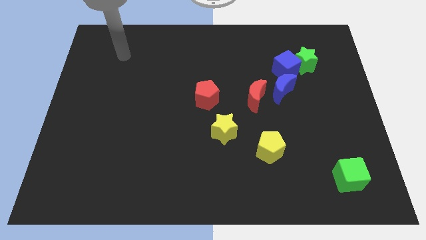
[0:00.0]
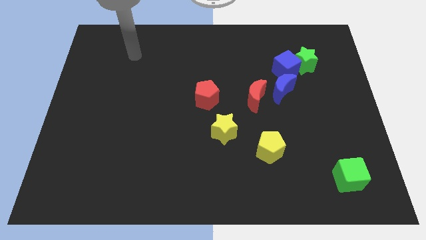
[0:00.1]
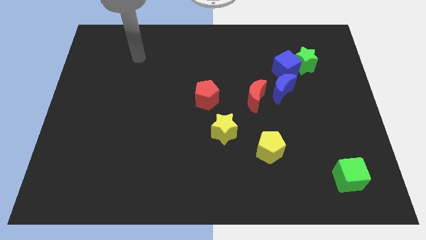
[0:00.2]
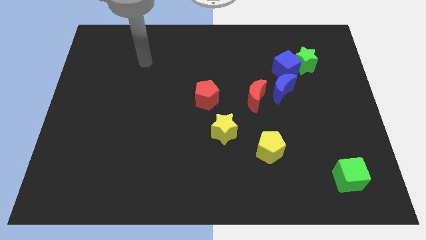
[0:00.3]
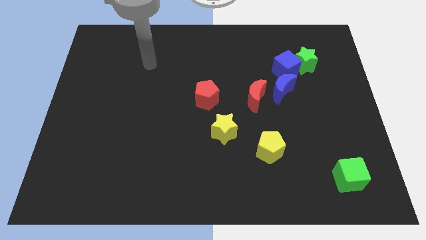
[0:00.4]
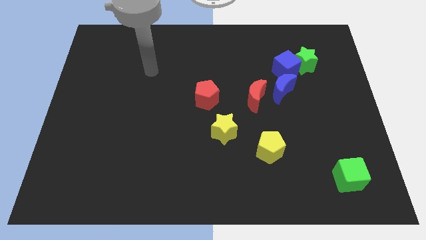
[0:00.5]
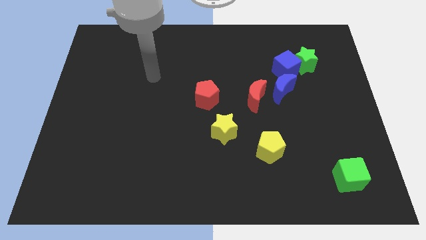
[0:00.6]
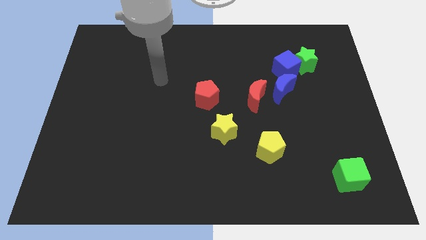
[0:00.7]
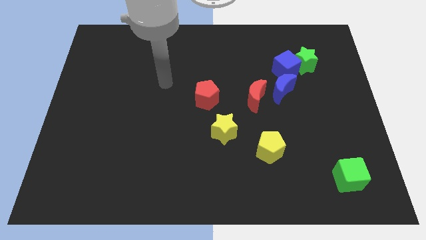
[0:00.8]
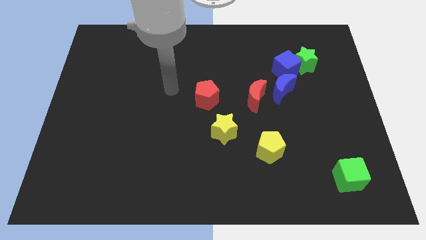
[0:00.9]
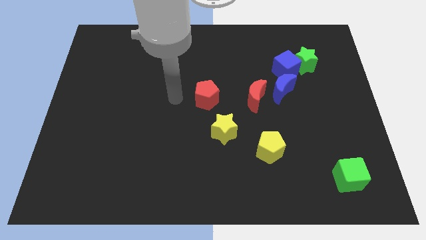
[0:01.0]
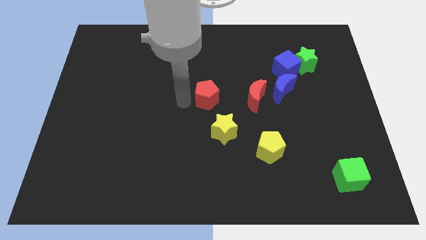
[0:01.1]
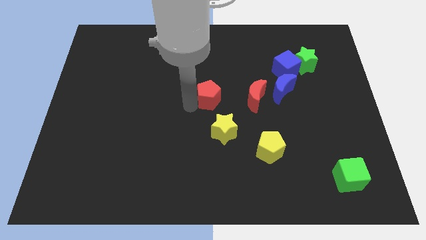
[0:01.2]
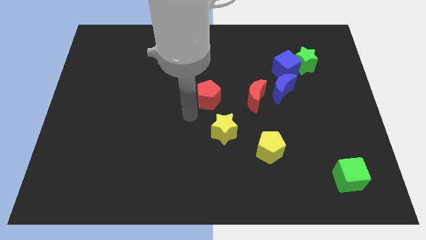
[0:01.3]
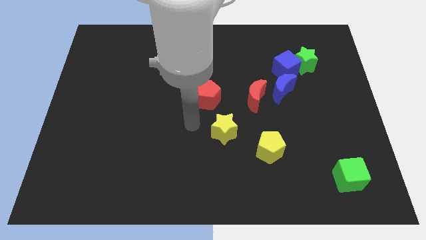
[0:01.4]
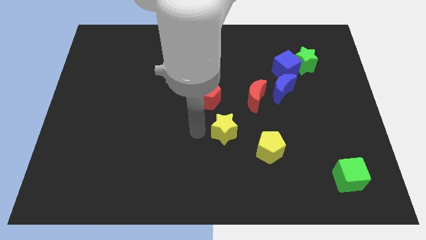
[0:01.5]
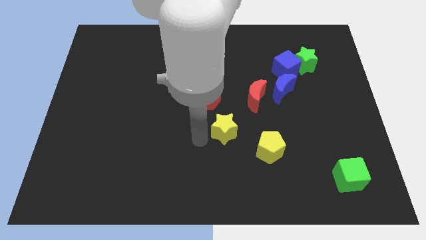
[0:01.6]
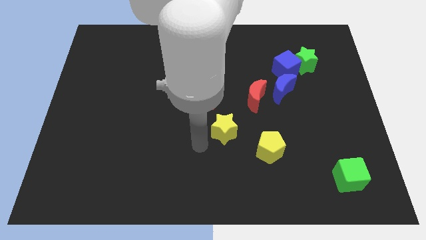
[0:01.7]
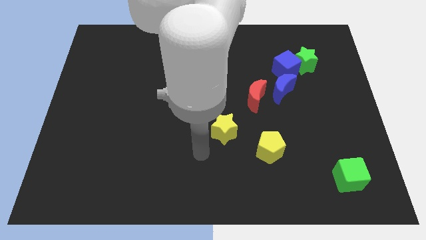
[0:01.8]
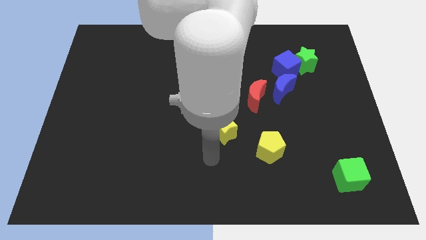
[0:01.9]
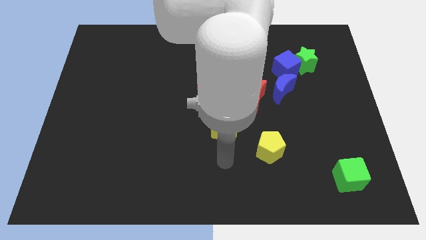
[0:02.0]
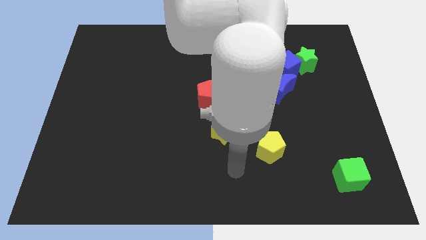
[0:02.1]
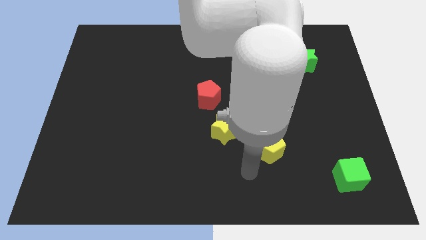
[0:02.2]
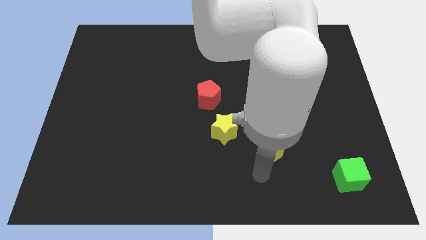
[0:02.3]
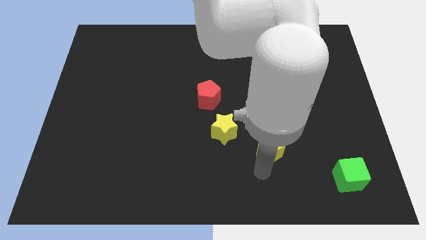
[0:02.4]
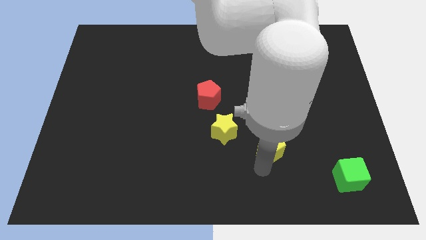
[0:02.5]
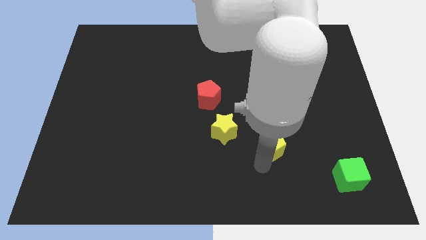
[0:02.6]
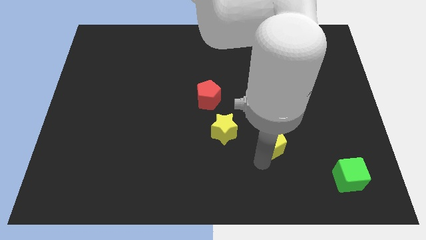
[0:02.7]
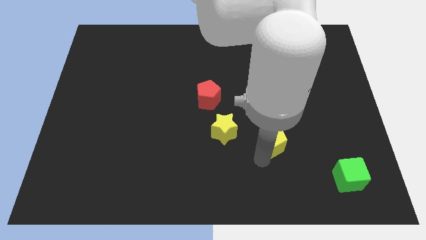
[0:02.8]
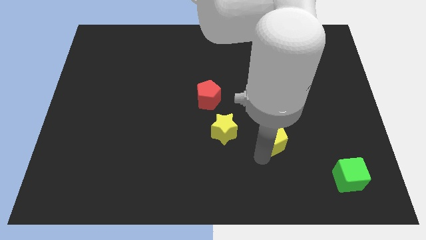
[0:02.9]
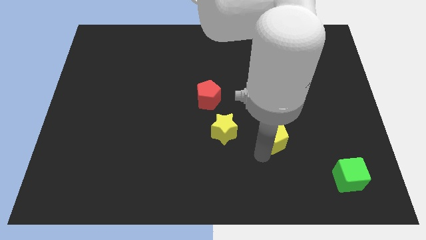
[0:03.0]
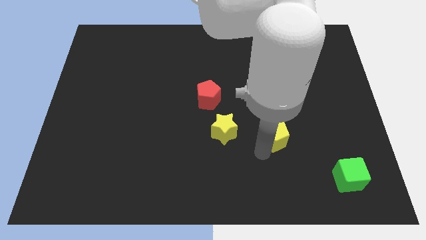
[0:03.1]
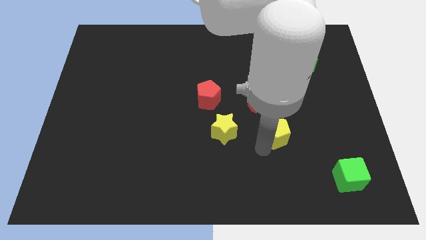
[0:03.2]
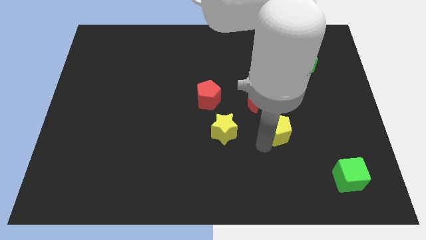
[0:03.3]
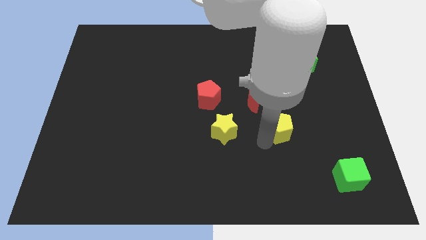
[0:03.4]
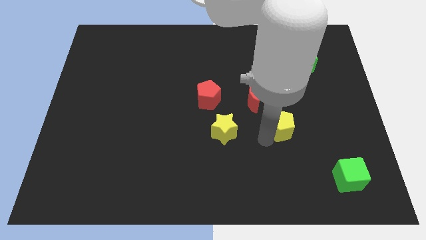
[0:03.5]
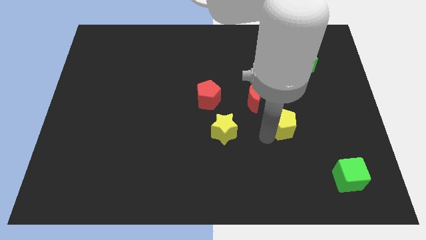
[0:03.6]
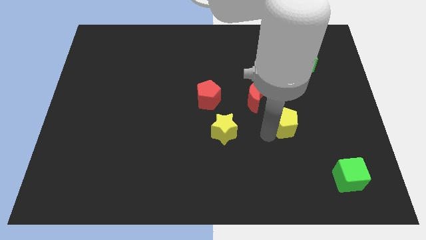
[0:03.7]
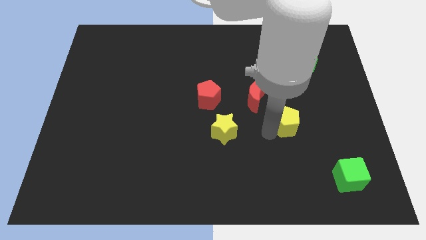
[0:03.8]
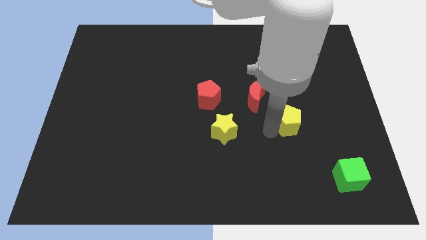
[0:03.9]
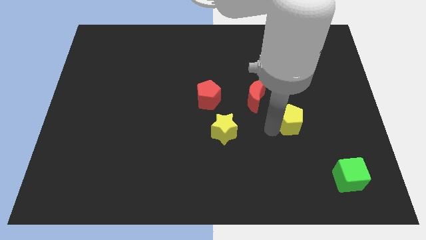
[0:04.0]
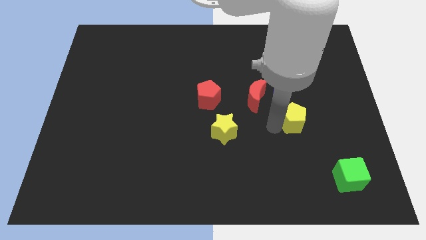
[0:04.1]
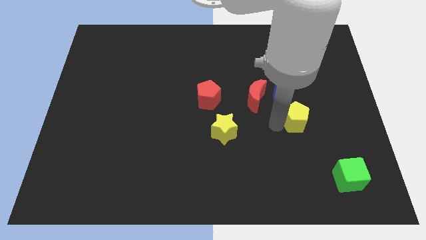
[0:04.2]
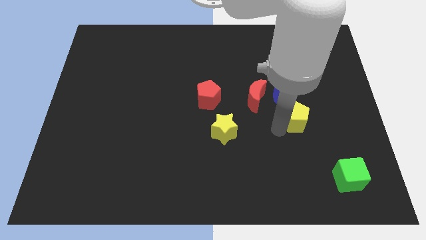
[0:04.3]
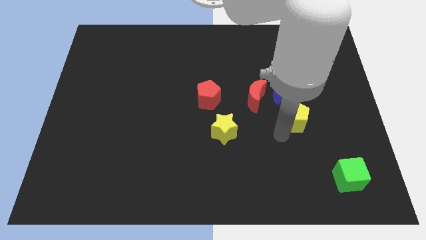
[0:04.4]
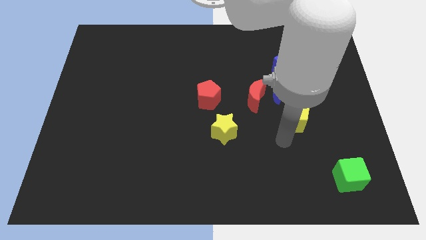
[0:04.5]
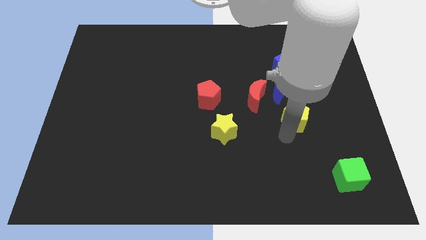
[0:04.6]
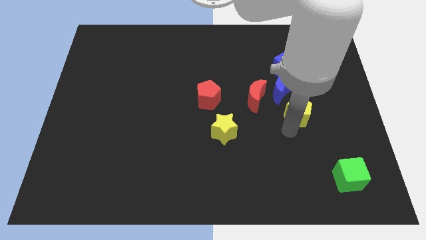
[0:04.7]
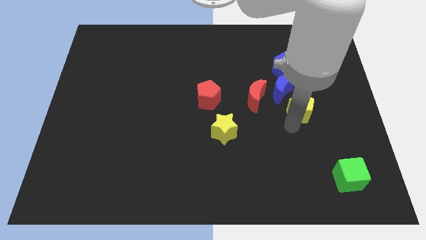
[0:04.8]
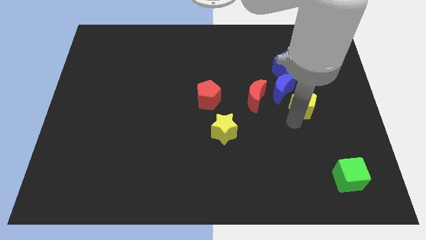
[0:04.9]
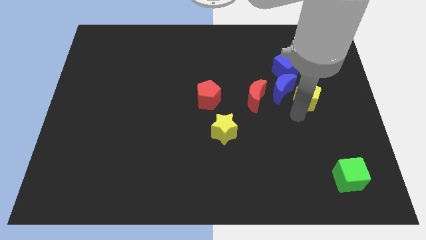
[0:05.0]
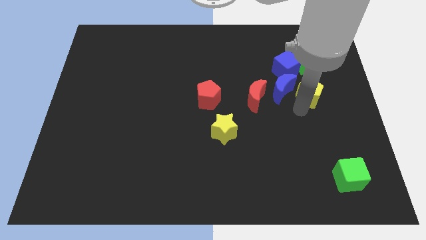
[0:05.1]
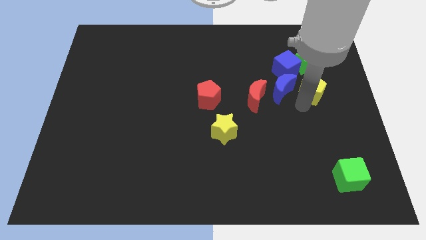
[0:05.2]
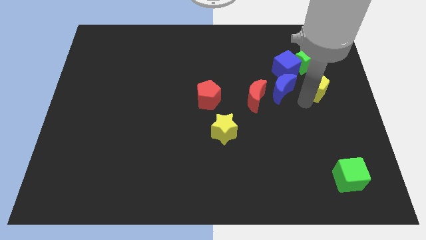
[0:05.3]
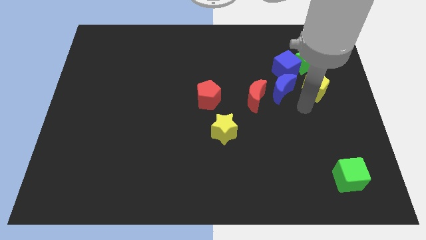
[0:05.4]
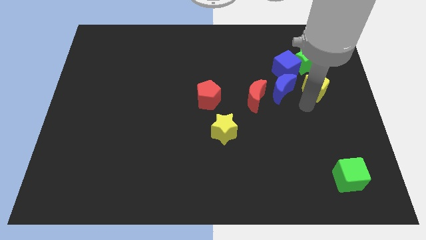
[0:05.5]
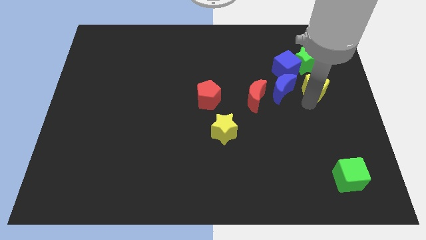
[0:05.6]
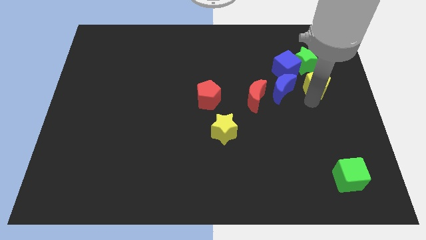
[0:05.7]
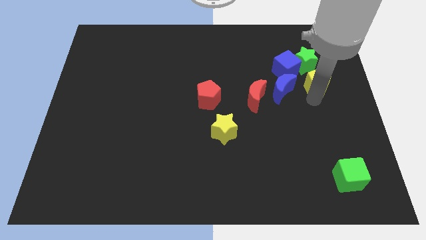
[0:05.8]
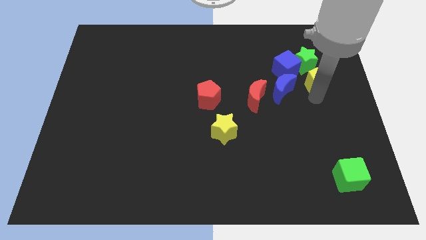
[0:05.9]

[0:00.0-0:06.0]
slide the yellow pentagon to the right side of the blue cube

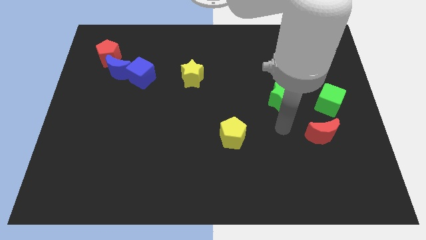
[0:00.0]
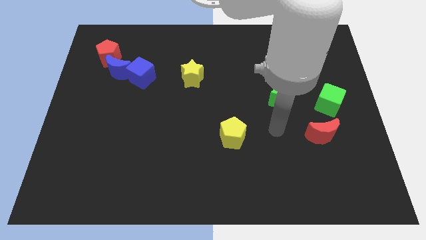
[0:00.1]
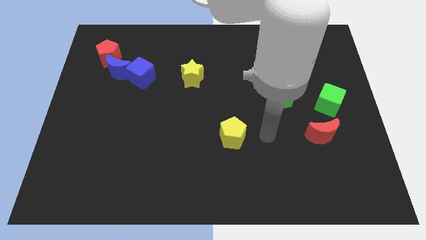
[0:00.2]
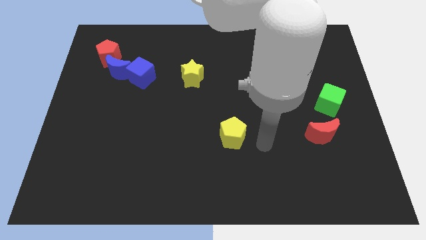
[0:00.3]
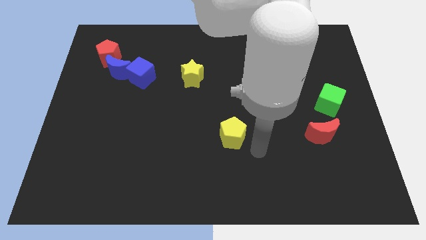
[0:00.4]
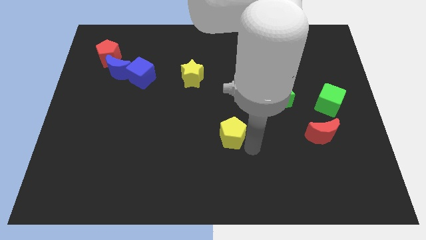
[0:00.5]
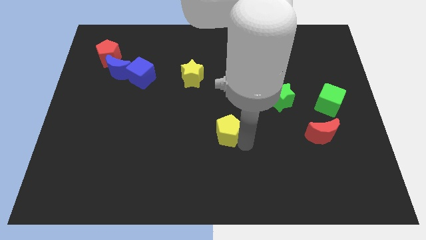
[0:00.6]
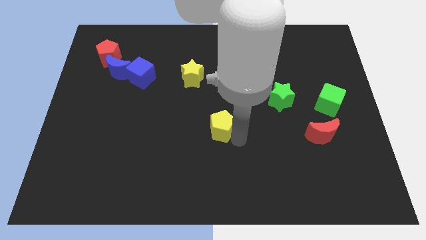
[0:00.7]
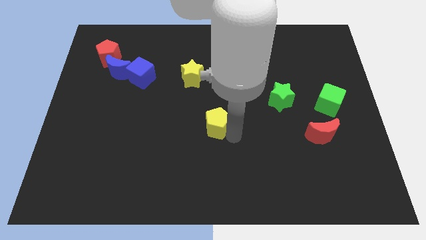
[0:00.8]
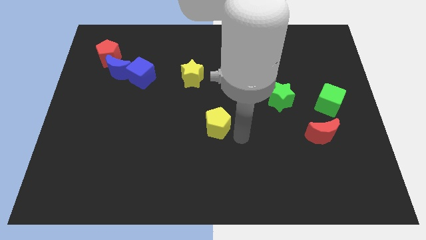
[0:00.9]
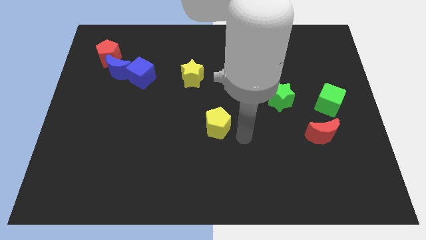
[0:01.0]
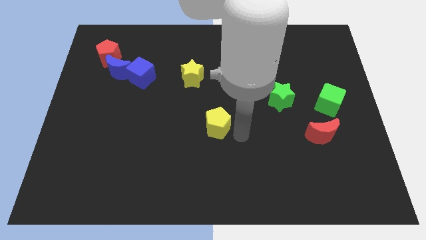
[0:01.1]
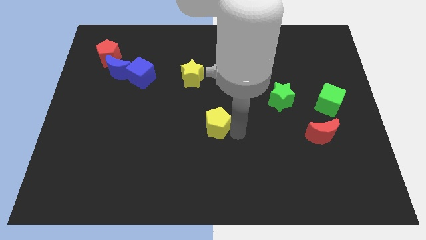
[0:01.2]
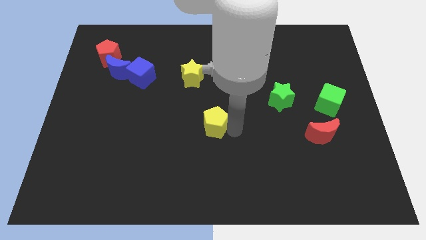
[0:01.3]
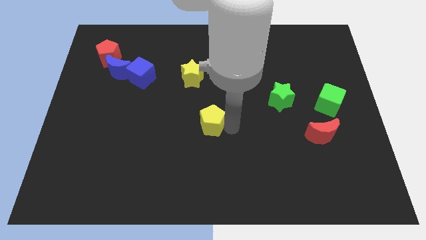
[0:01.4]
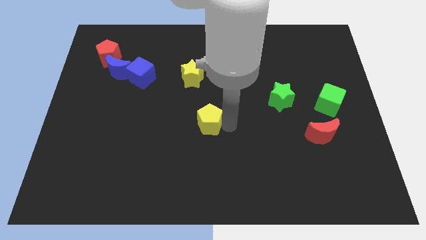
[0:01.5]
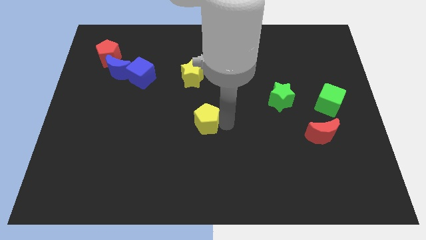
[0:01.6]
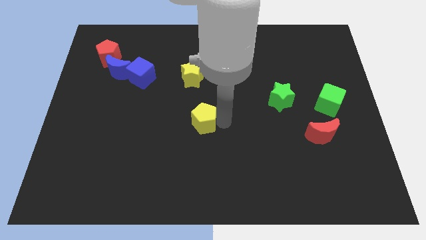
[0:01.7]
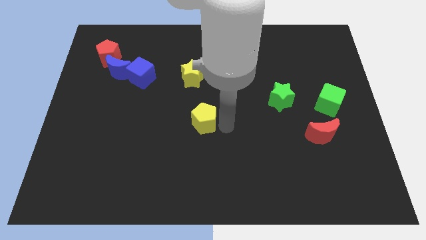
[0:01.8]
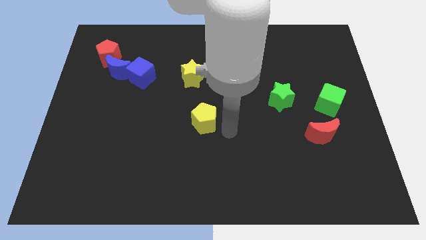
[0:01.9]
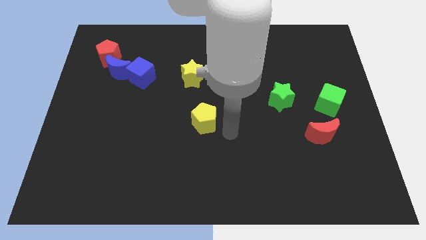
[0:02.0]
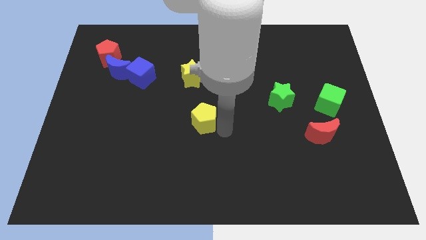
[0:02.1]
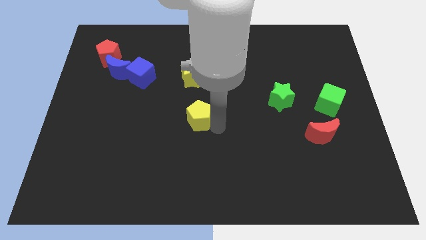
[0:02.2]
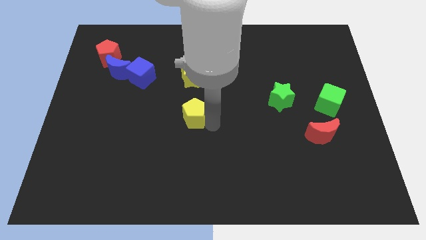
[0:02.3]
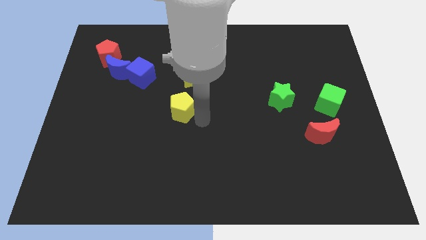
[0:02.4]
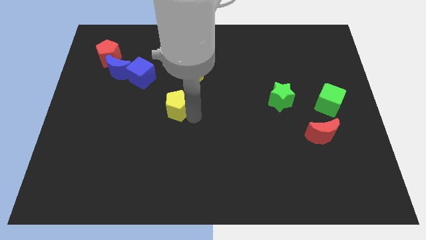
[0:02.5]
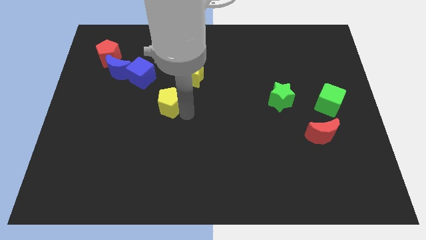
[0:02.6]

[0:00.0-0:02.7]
slide the yellow pentagon to the bottom right of the blue cube
